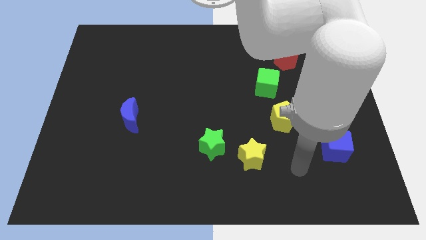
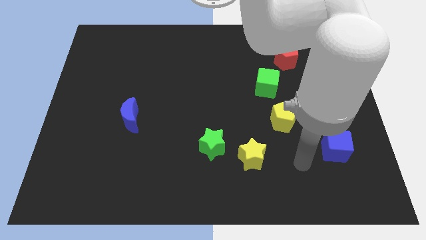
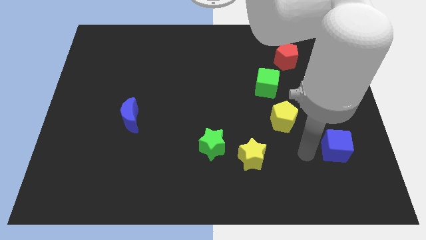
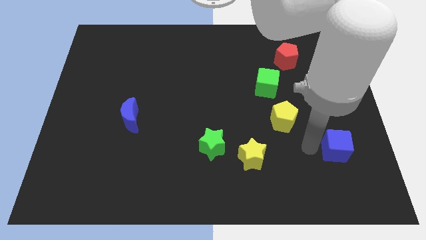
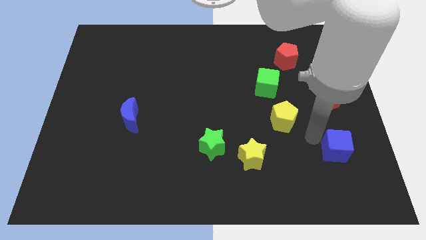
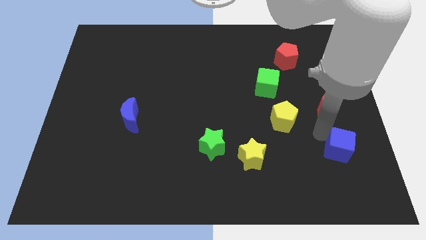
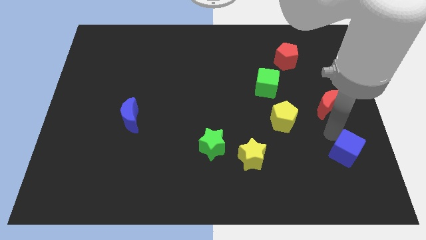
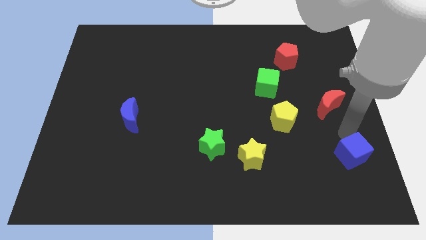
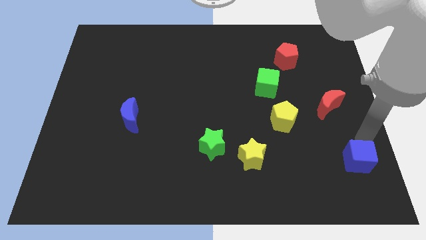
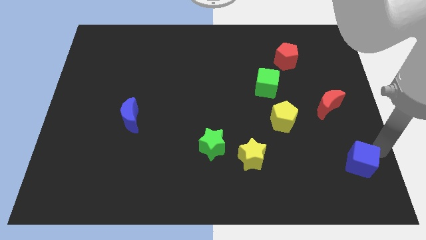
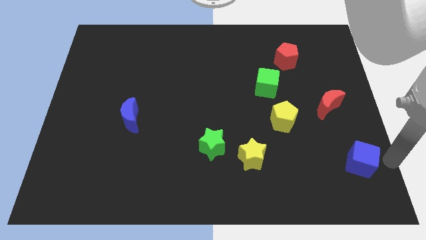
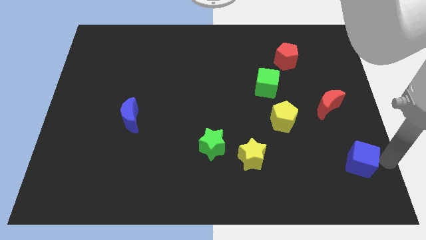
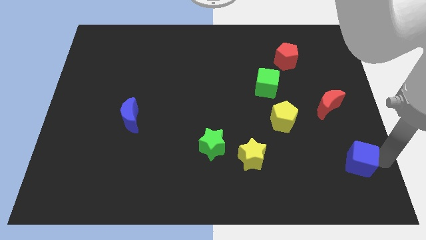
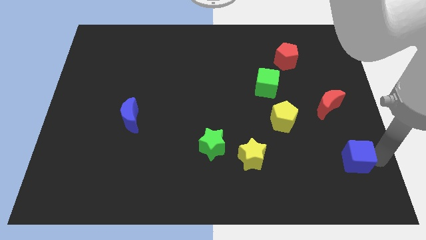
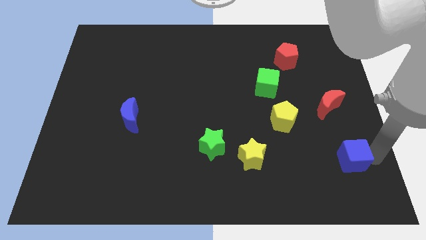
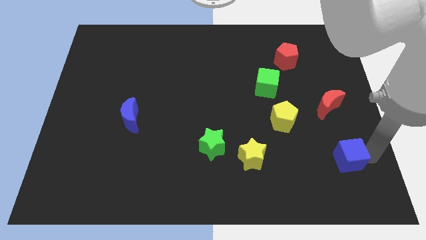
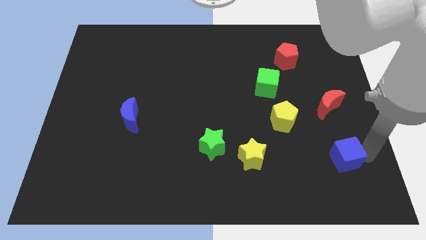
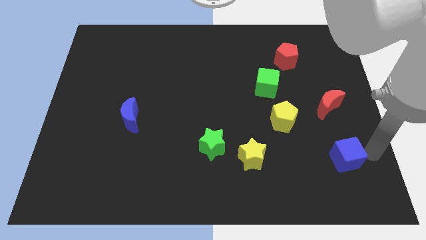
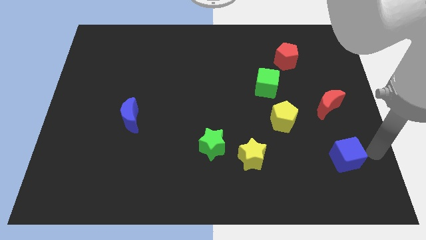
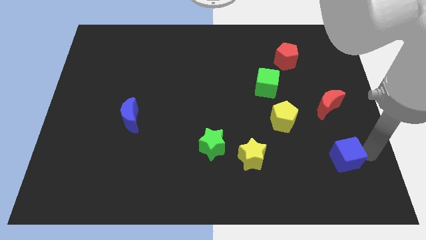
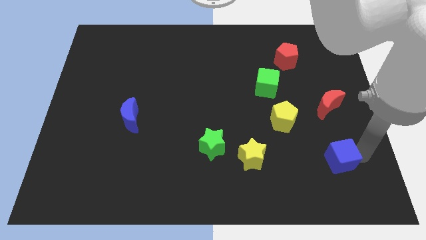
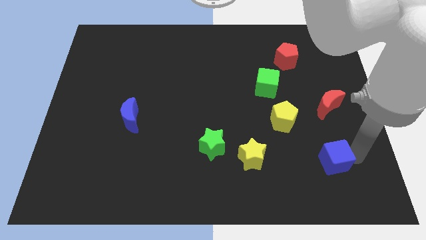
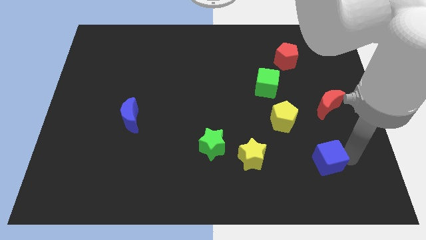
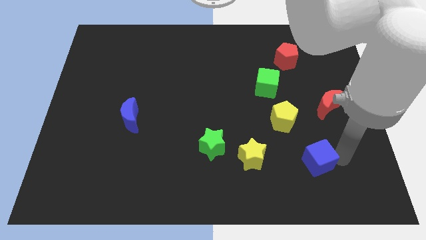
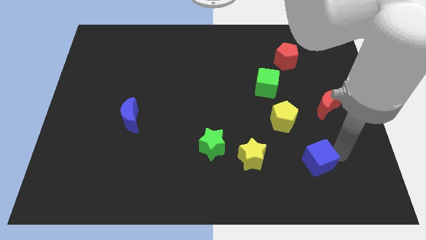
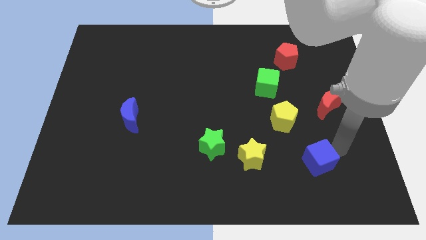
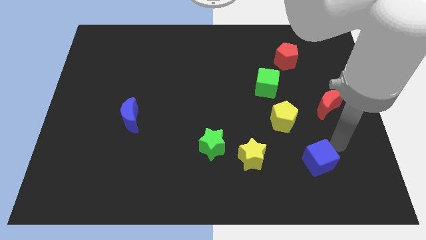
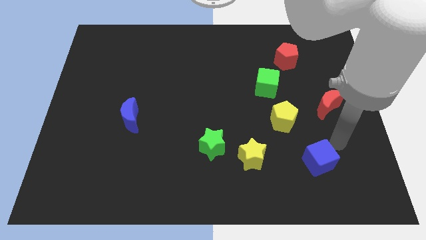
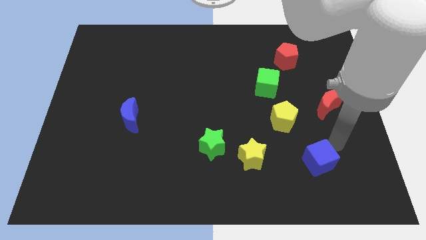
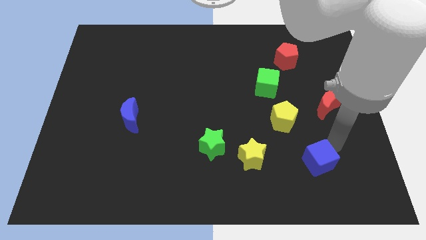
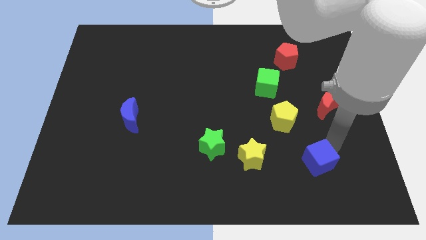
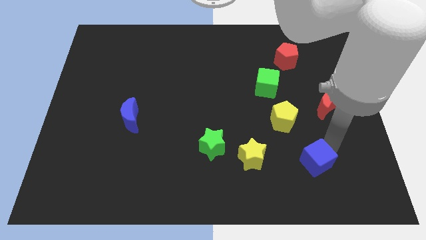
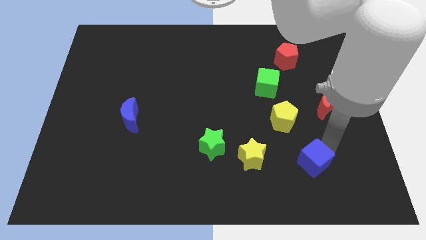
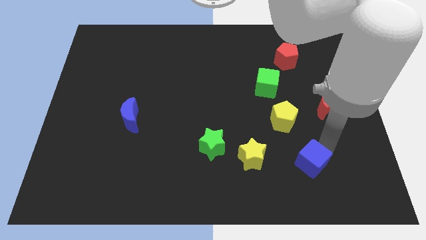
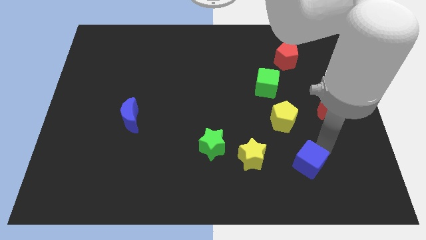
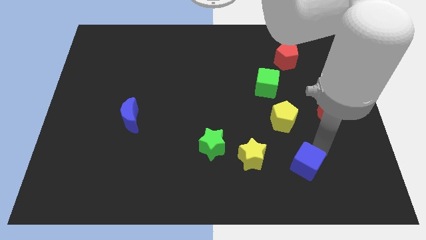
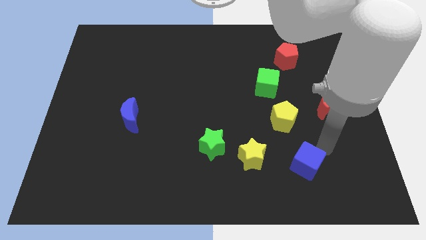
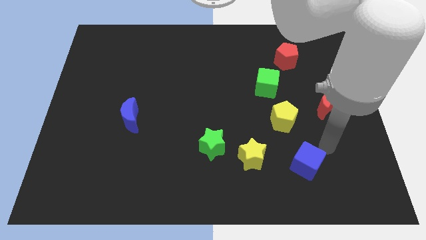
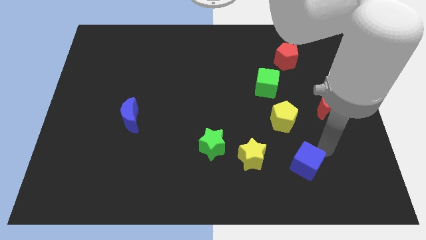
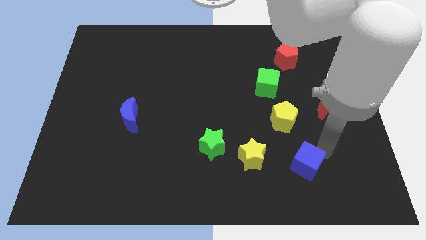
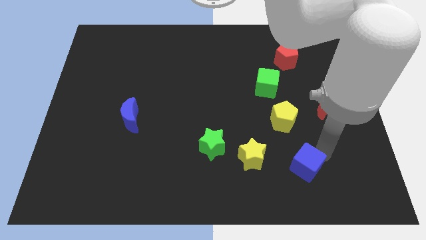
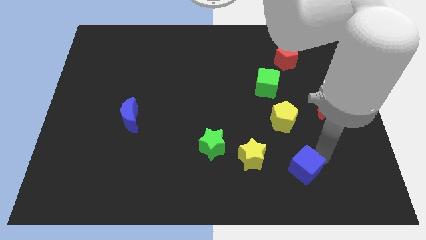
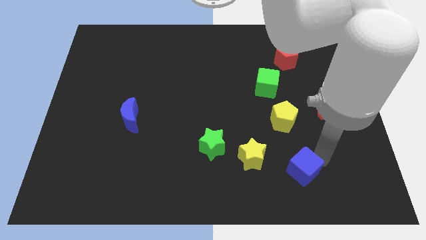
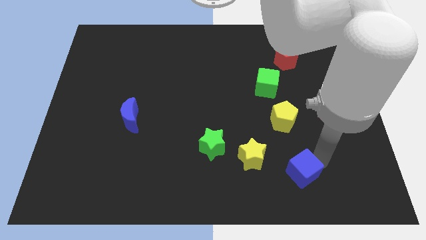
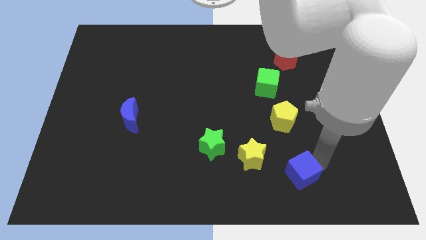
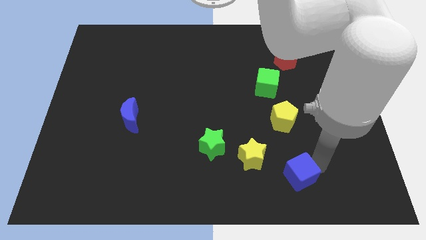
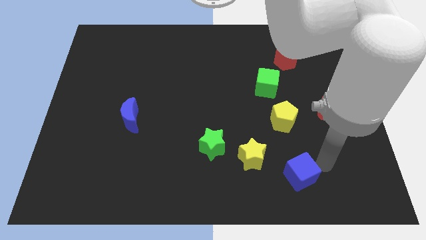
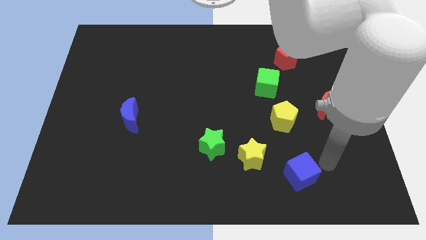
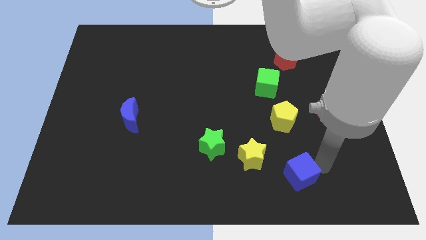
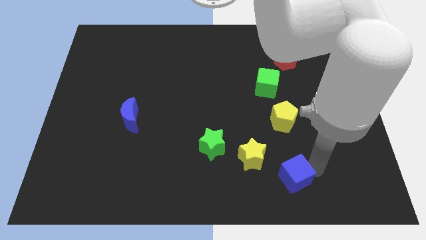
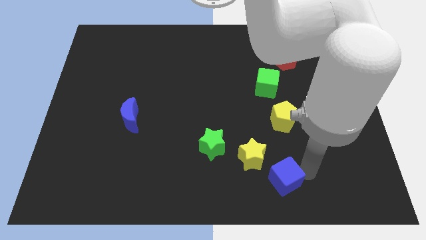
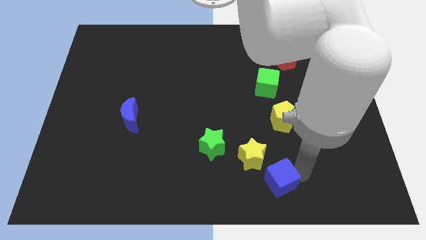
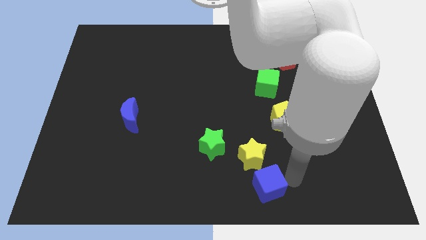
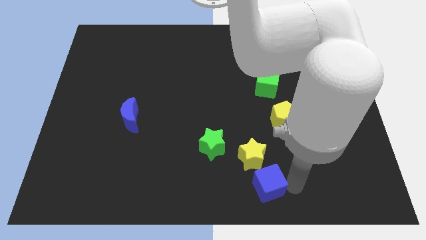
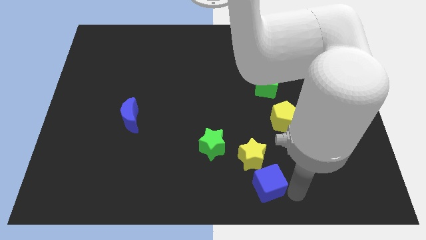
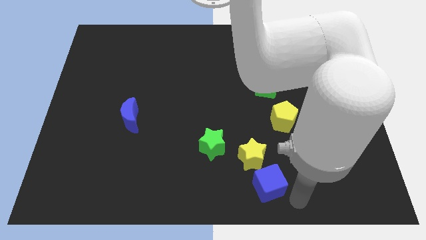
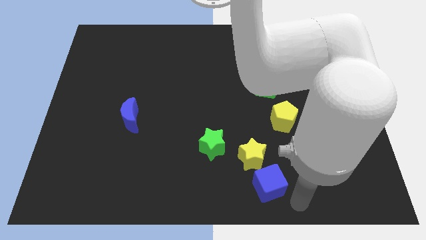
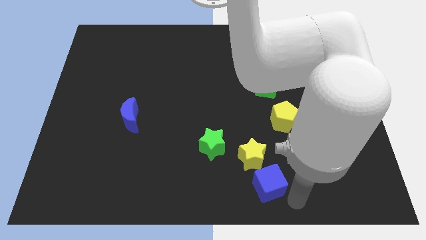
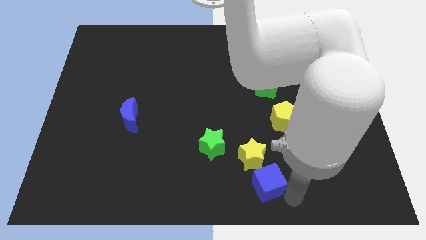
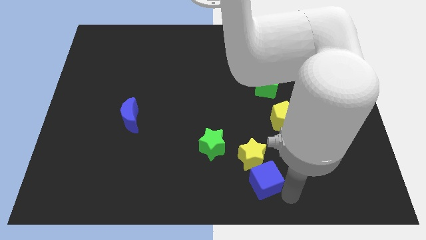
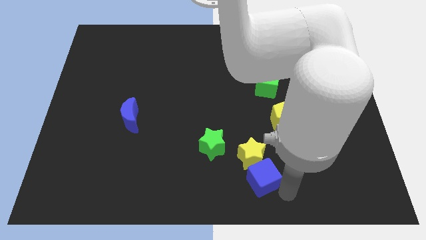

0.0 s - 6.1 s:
slide the blue cube diagonally down and to the right of the green star
